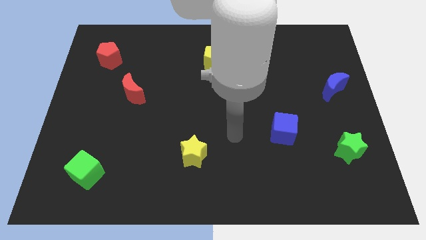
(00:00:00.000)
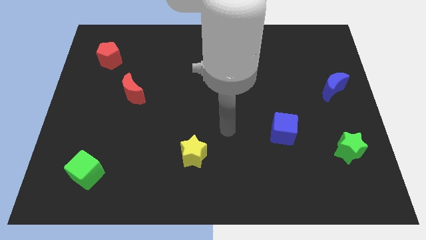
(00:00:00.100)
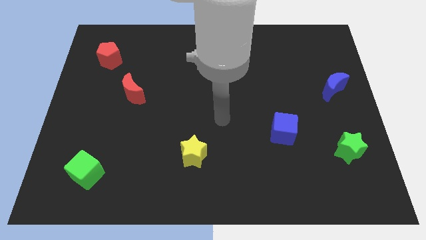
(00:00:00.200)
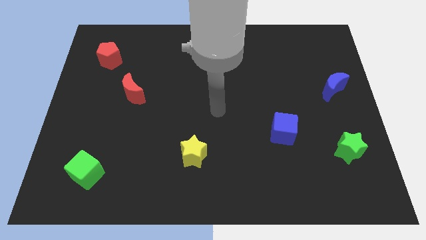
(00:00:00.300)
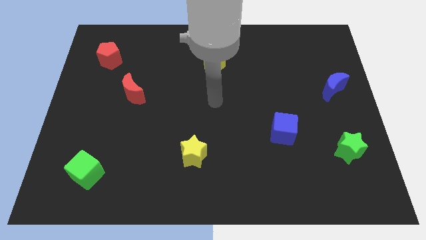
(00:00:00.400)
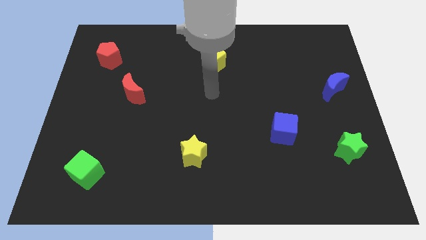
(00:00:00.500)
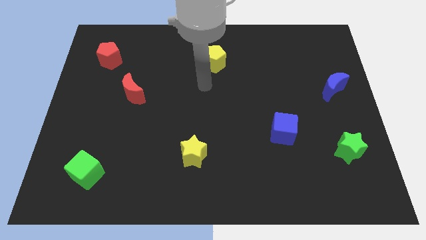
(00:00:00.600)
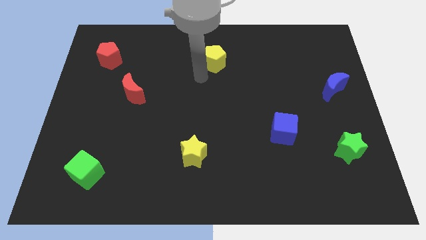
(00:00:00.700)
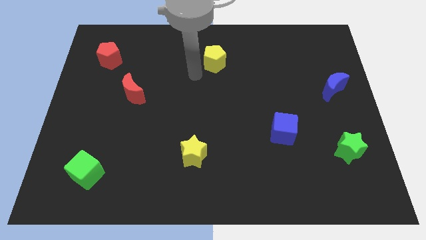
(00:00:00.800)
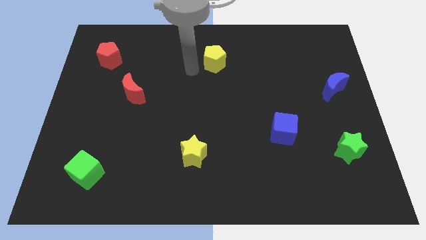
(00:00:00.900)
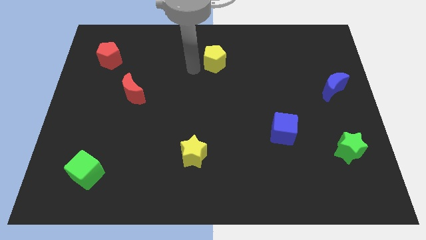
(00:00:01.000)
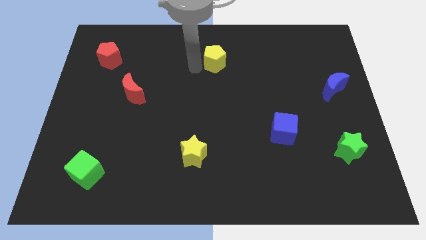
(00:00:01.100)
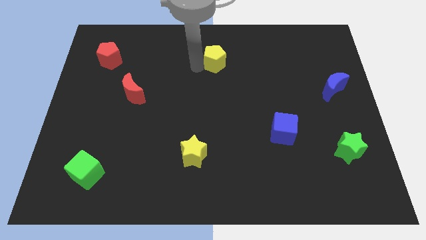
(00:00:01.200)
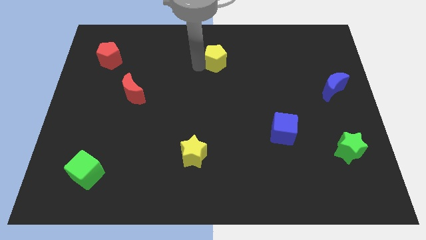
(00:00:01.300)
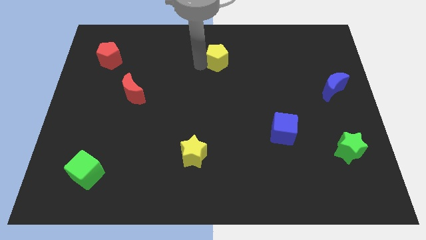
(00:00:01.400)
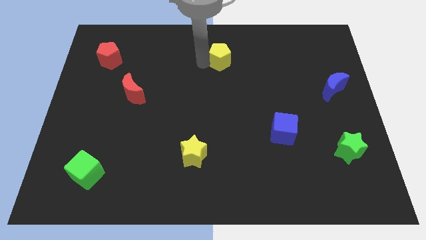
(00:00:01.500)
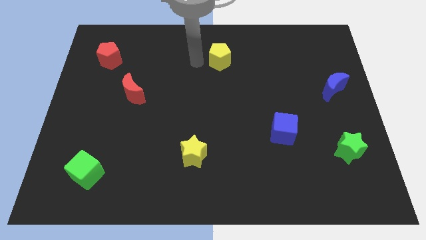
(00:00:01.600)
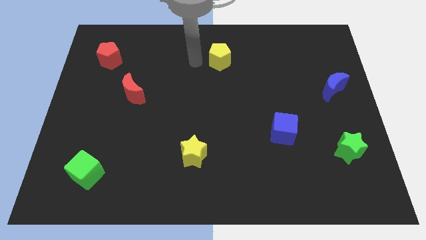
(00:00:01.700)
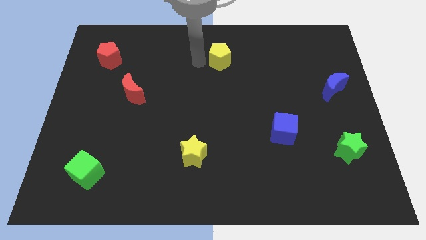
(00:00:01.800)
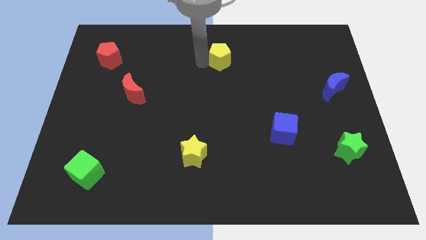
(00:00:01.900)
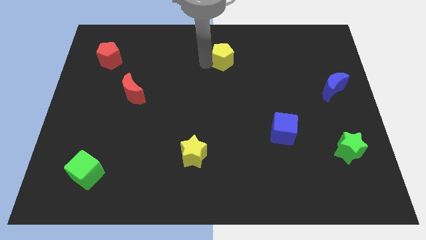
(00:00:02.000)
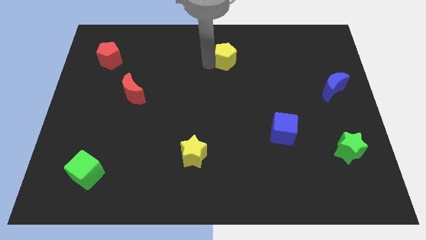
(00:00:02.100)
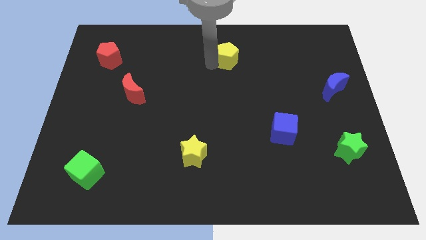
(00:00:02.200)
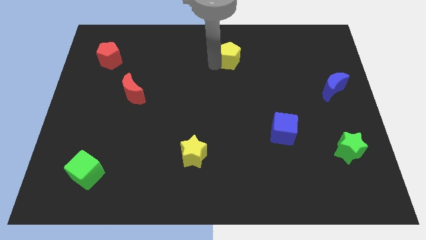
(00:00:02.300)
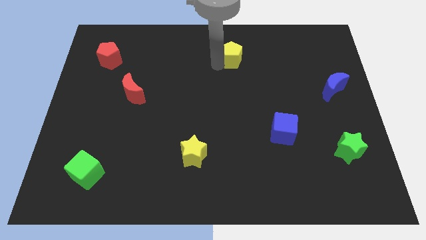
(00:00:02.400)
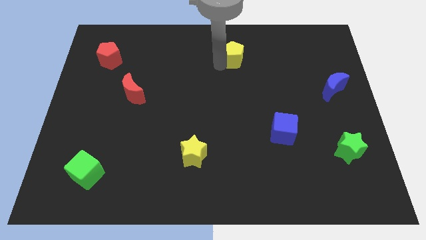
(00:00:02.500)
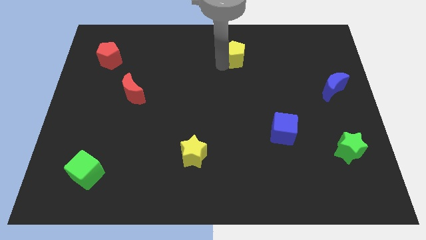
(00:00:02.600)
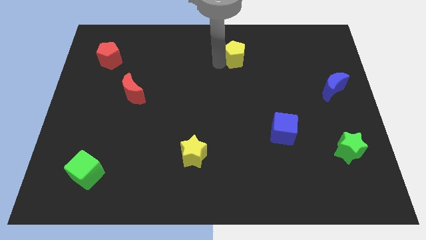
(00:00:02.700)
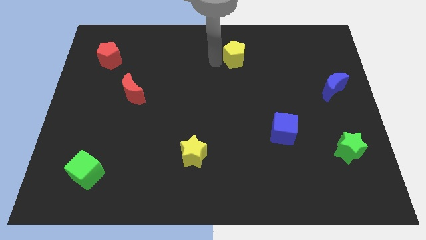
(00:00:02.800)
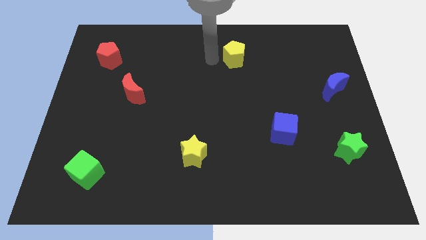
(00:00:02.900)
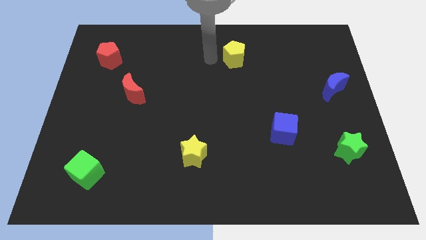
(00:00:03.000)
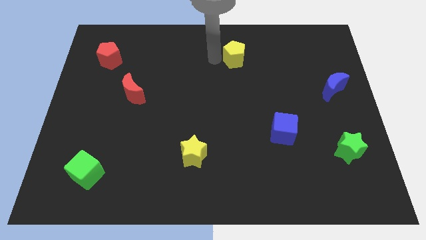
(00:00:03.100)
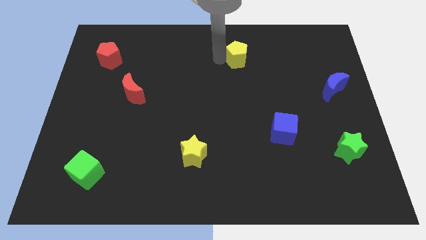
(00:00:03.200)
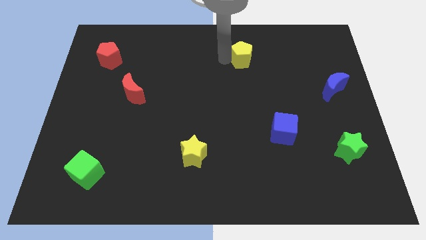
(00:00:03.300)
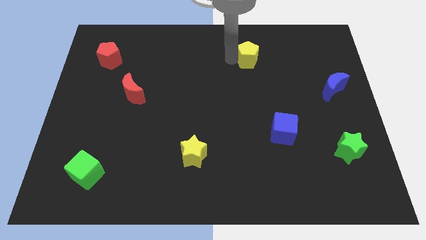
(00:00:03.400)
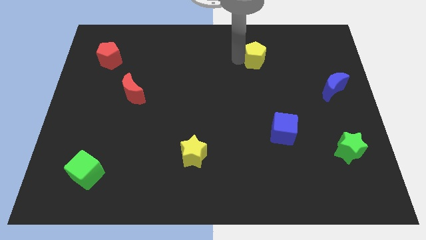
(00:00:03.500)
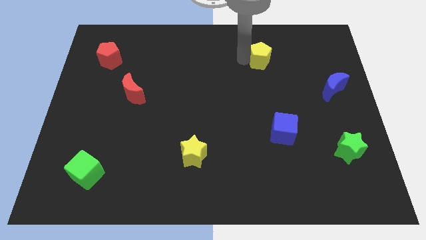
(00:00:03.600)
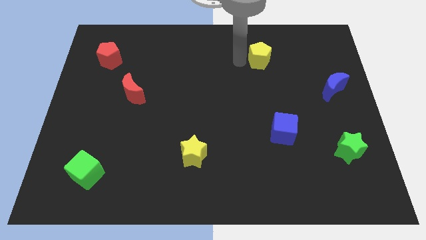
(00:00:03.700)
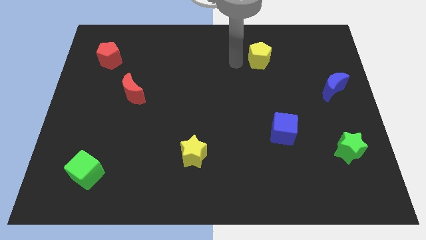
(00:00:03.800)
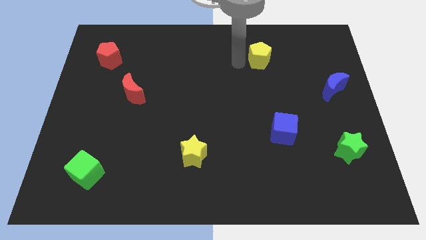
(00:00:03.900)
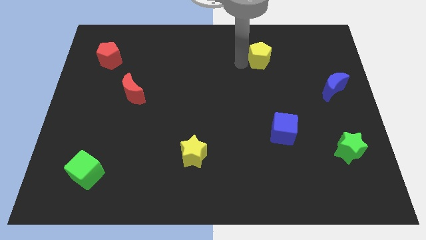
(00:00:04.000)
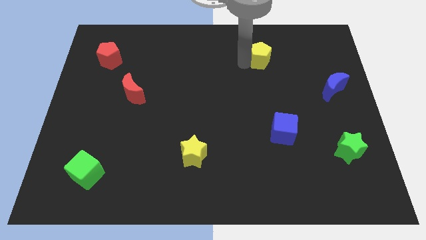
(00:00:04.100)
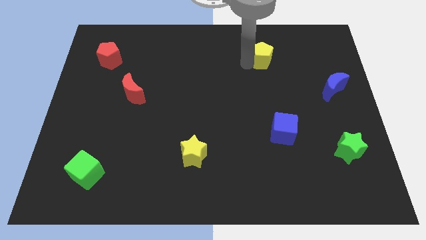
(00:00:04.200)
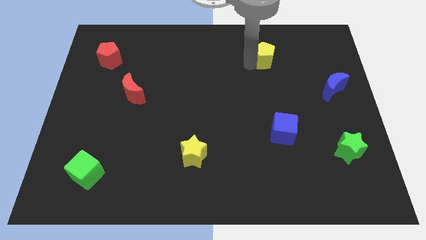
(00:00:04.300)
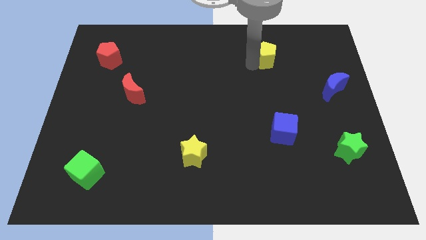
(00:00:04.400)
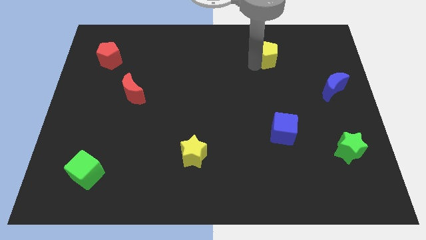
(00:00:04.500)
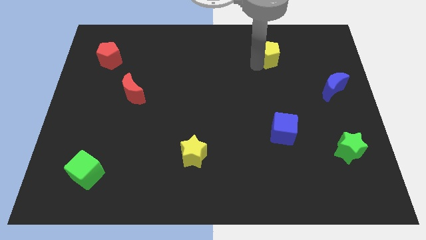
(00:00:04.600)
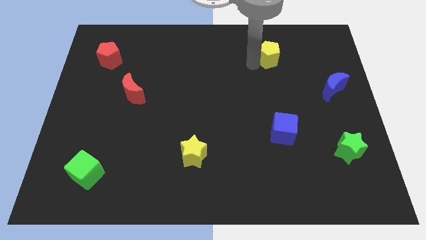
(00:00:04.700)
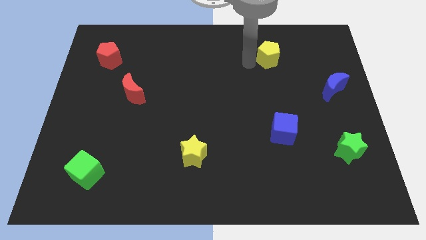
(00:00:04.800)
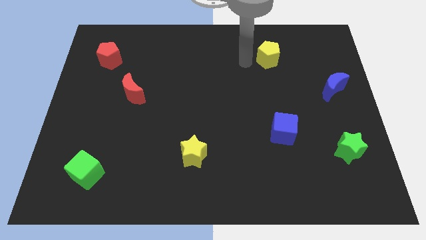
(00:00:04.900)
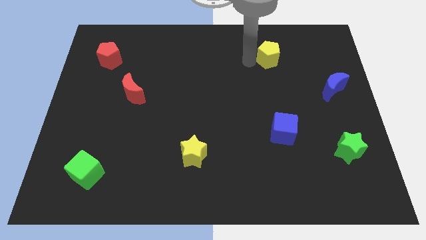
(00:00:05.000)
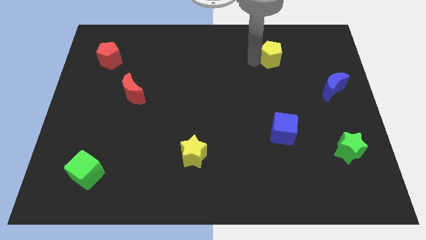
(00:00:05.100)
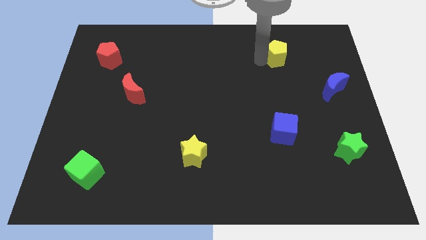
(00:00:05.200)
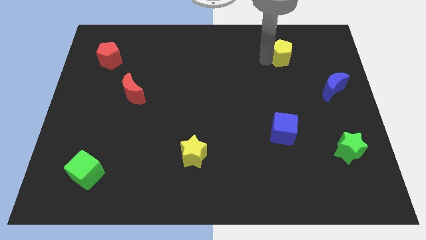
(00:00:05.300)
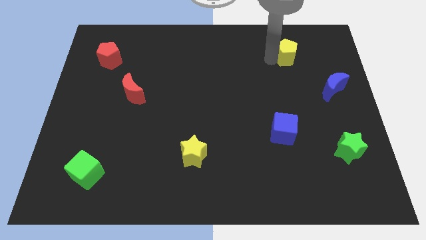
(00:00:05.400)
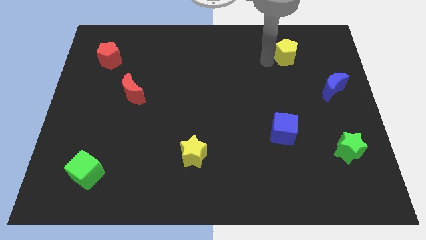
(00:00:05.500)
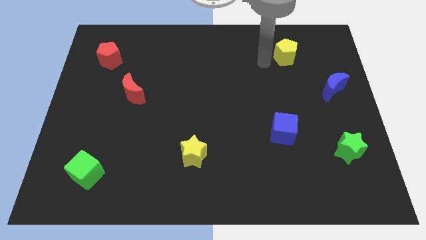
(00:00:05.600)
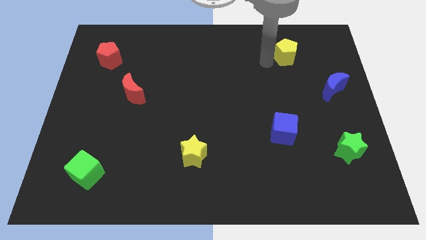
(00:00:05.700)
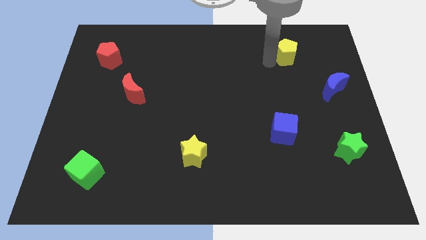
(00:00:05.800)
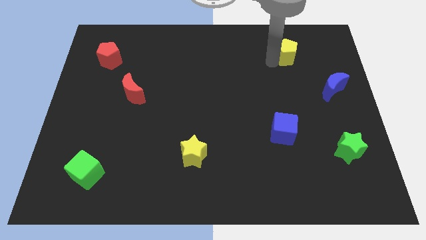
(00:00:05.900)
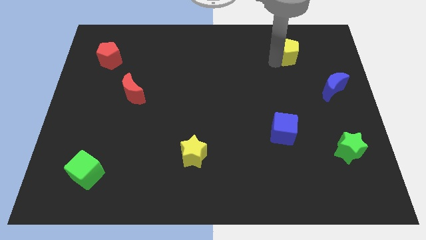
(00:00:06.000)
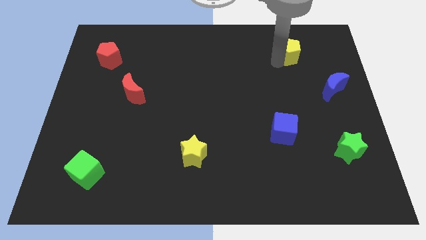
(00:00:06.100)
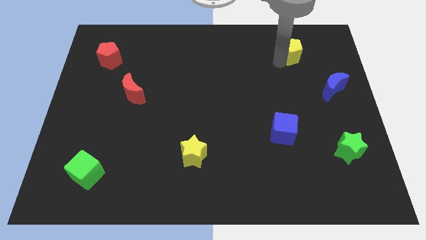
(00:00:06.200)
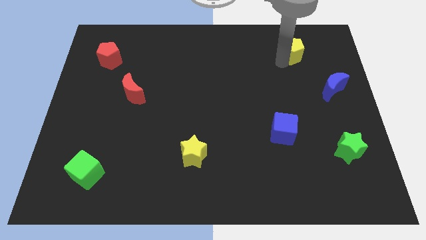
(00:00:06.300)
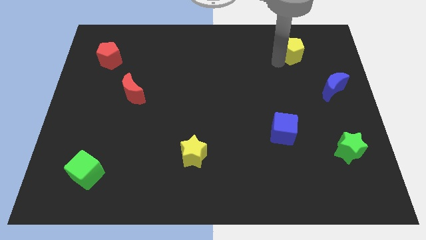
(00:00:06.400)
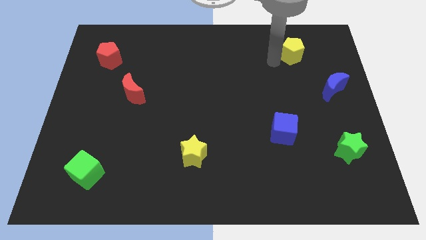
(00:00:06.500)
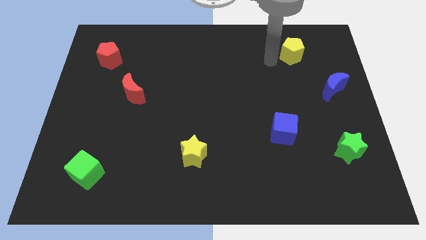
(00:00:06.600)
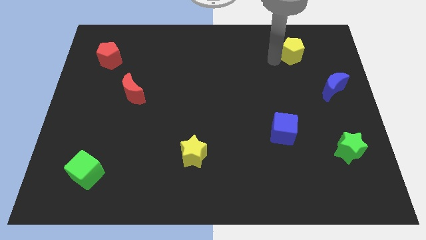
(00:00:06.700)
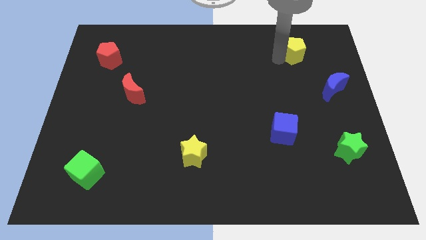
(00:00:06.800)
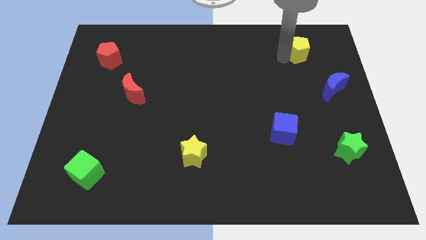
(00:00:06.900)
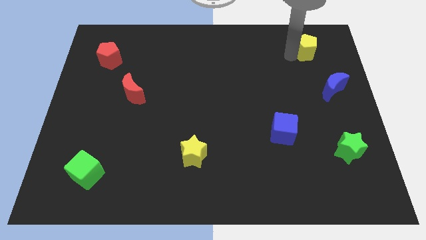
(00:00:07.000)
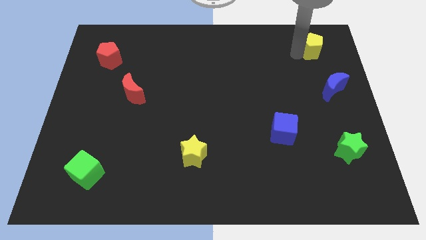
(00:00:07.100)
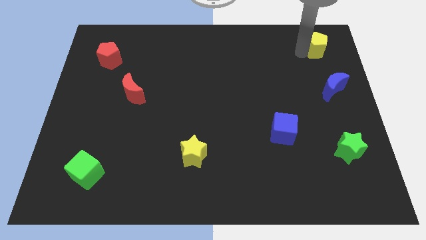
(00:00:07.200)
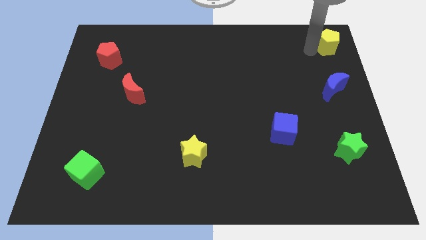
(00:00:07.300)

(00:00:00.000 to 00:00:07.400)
move the yellow pentagon to the top right of the board
